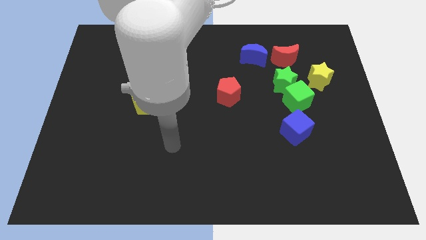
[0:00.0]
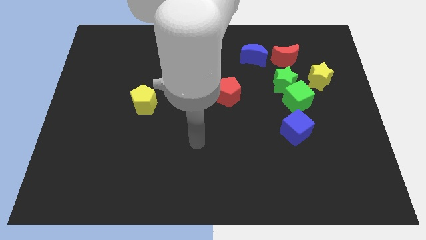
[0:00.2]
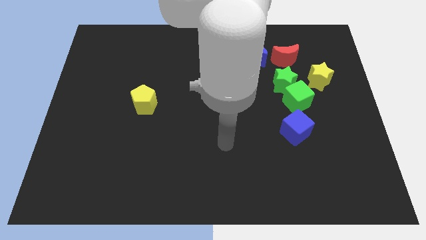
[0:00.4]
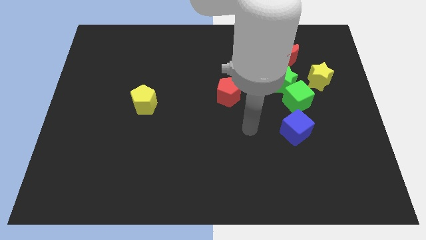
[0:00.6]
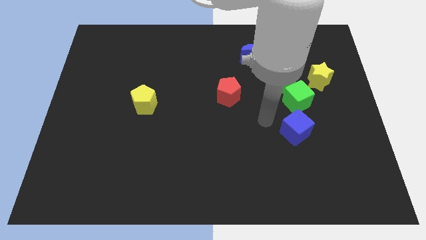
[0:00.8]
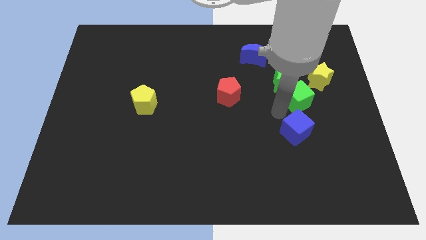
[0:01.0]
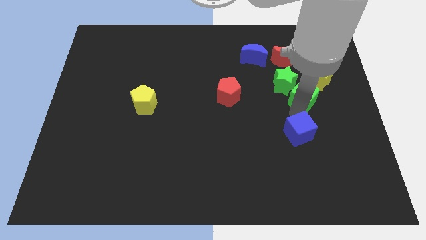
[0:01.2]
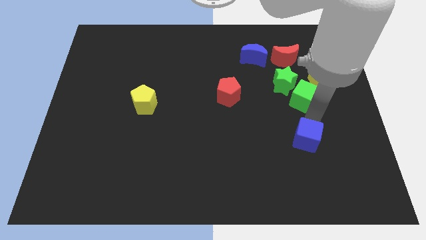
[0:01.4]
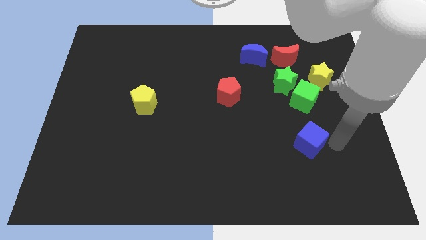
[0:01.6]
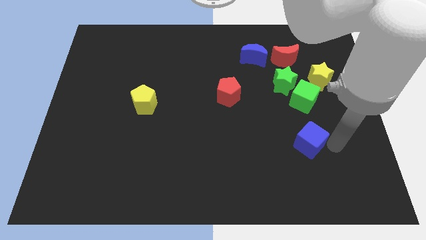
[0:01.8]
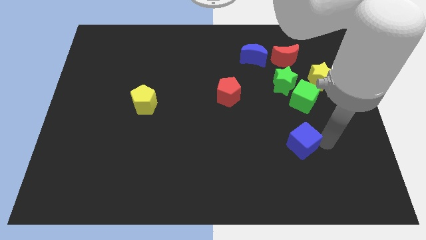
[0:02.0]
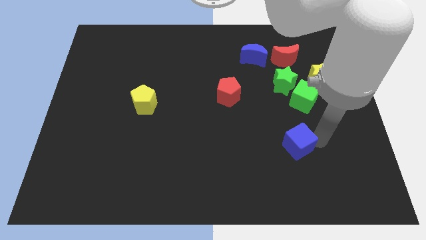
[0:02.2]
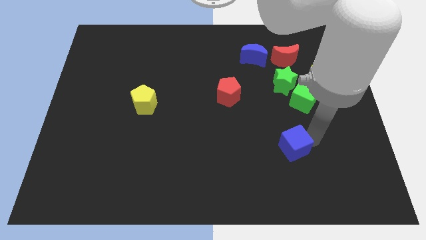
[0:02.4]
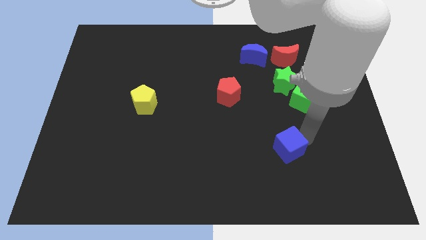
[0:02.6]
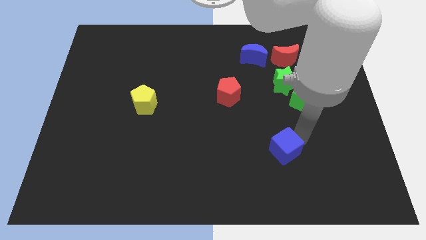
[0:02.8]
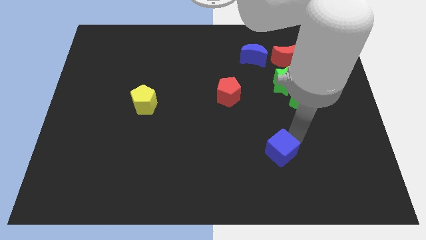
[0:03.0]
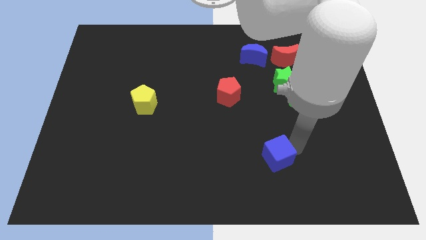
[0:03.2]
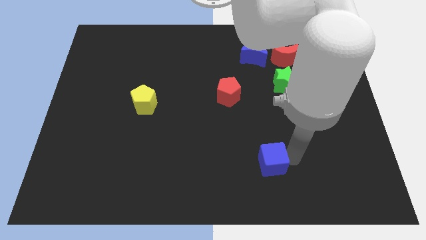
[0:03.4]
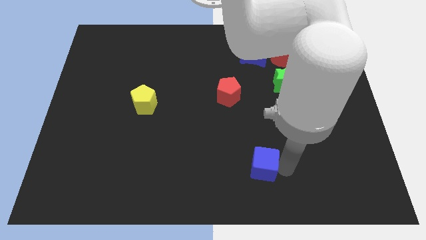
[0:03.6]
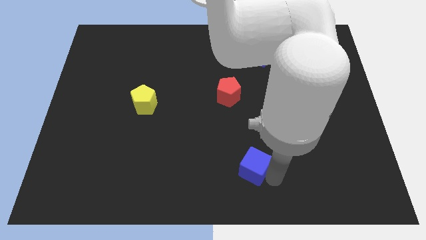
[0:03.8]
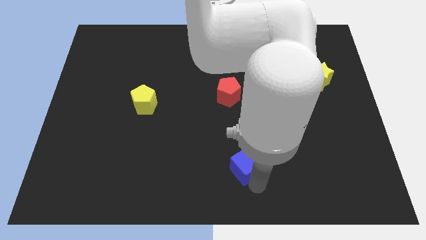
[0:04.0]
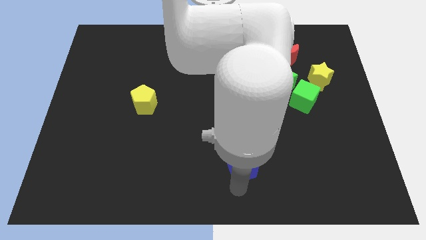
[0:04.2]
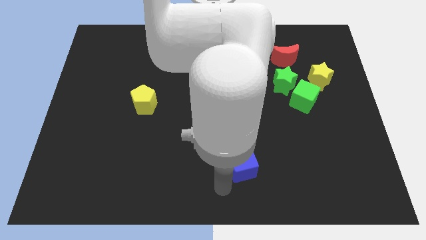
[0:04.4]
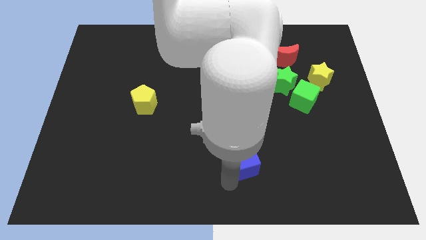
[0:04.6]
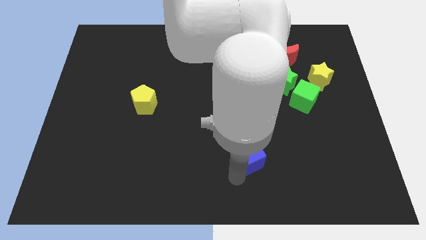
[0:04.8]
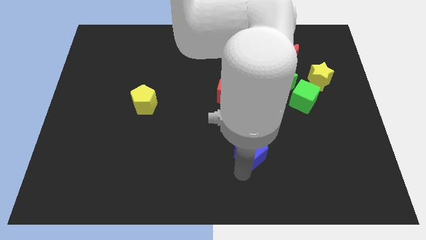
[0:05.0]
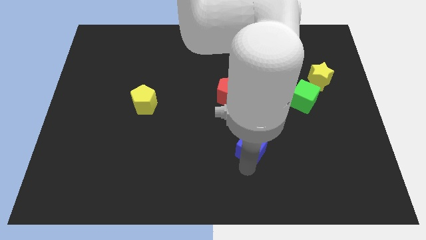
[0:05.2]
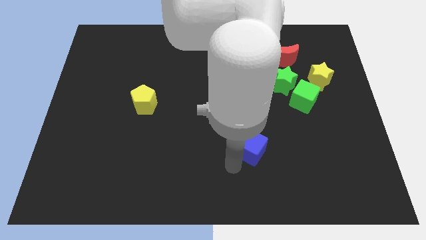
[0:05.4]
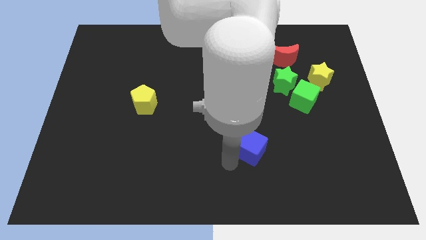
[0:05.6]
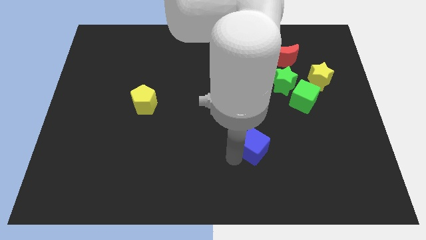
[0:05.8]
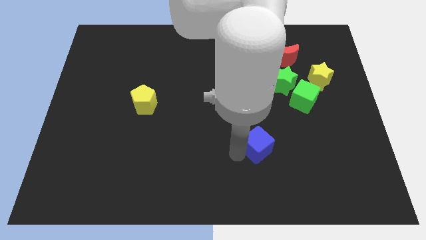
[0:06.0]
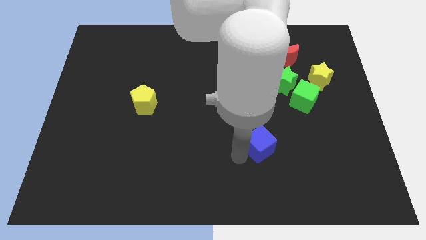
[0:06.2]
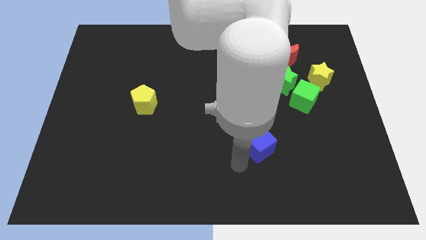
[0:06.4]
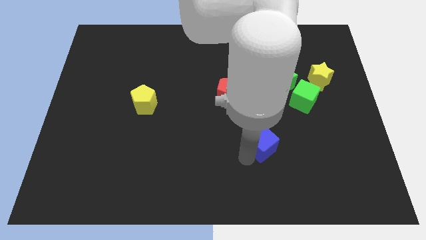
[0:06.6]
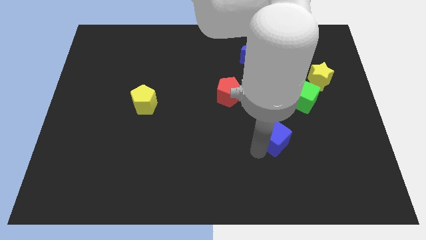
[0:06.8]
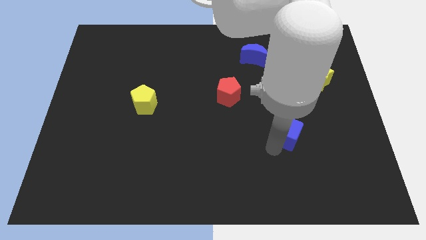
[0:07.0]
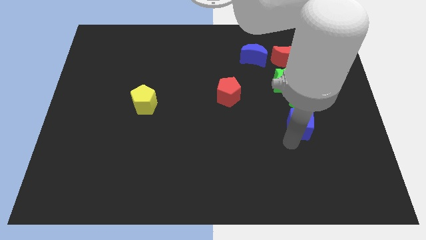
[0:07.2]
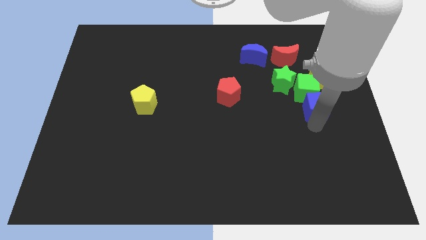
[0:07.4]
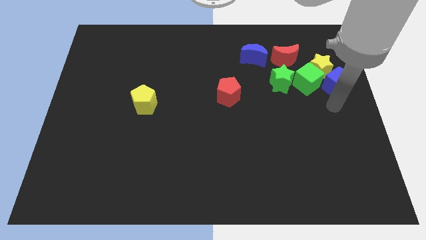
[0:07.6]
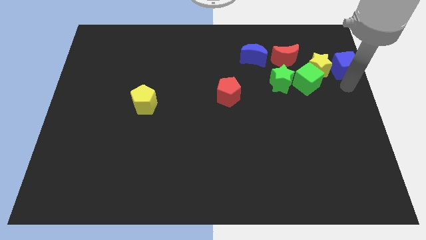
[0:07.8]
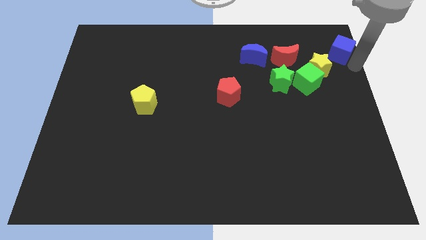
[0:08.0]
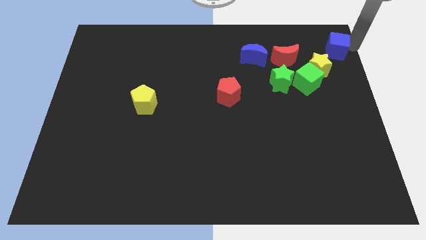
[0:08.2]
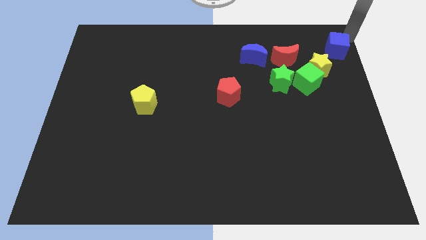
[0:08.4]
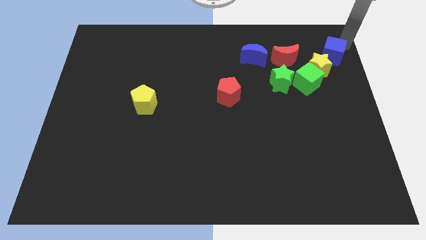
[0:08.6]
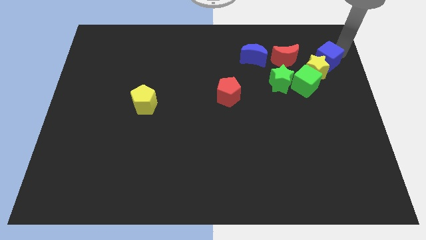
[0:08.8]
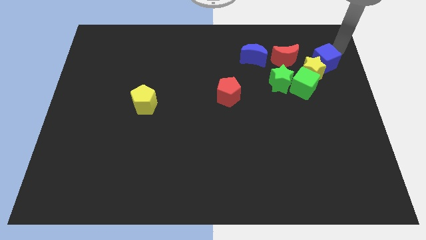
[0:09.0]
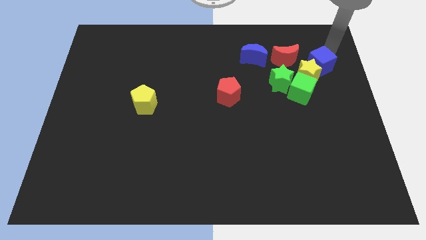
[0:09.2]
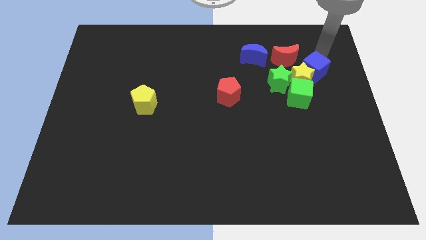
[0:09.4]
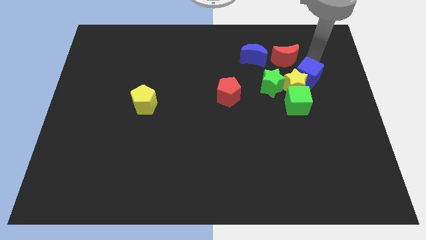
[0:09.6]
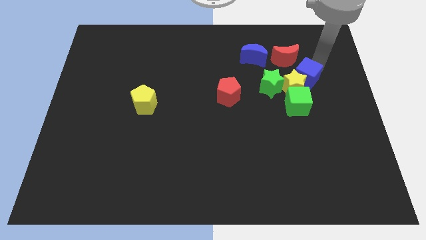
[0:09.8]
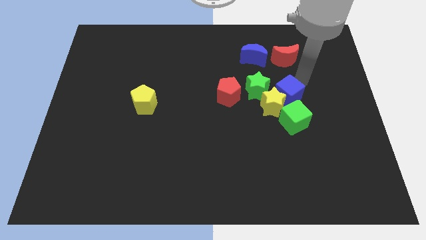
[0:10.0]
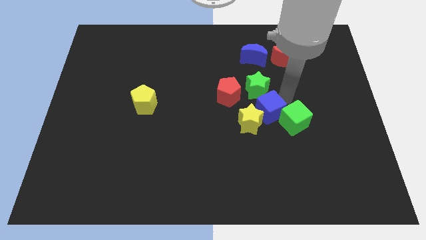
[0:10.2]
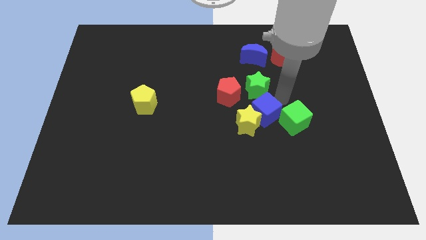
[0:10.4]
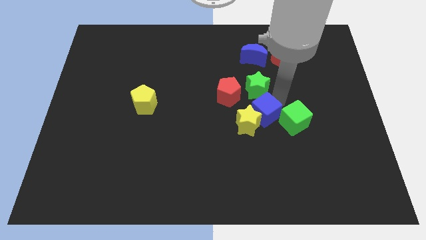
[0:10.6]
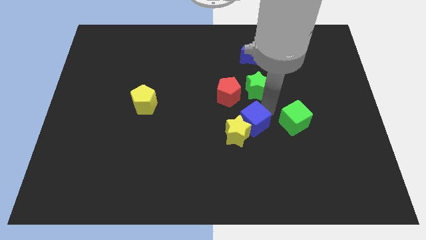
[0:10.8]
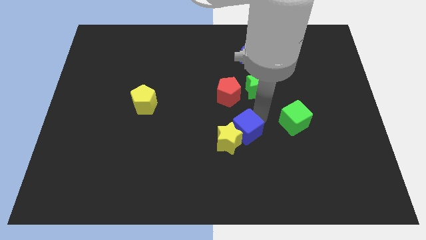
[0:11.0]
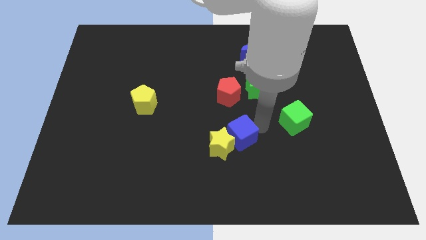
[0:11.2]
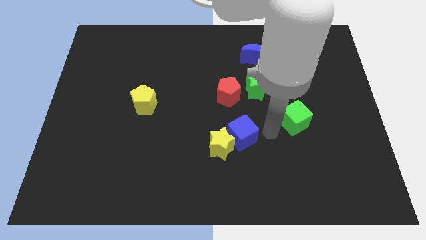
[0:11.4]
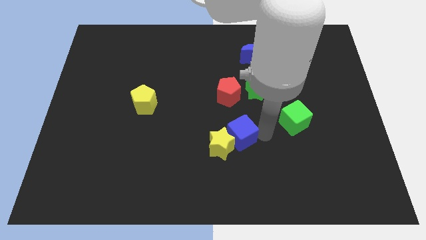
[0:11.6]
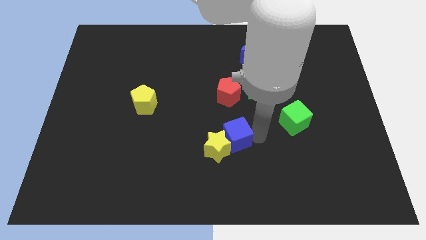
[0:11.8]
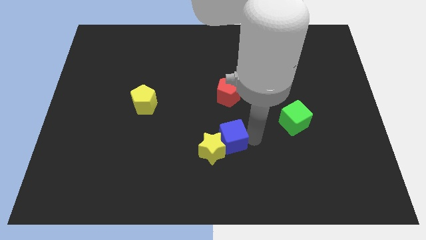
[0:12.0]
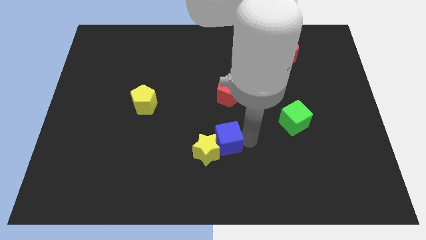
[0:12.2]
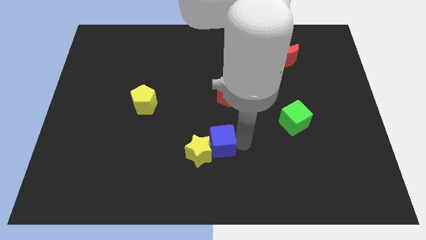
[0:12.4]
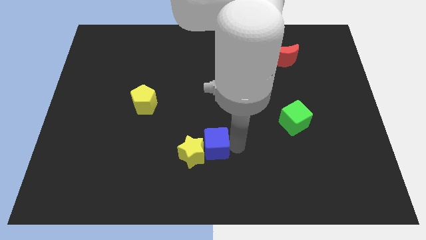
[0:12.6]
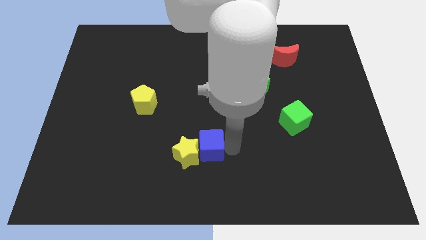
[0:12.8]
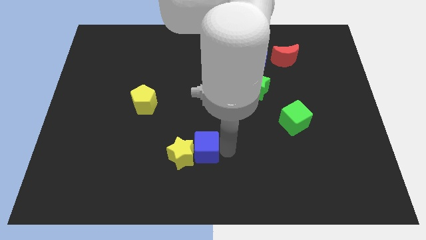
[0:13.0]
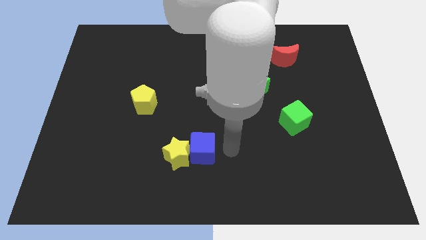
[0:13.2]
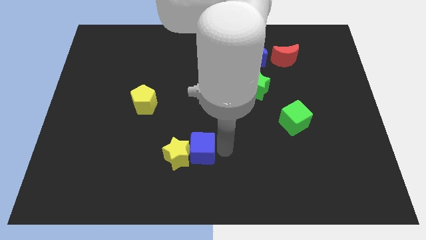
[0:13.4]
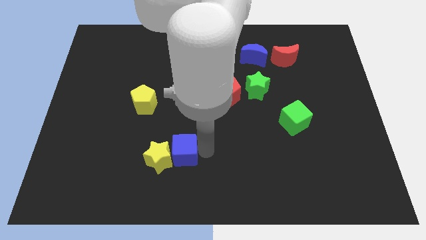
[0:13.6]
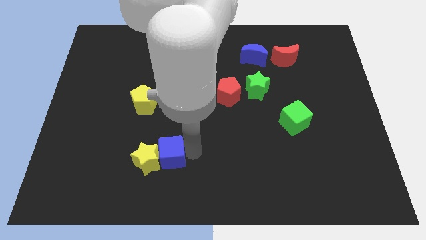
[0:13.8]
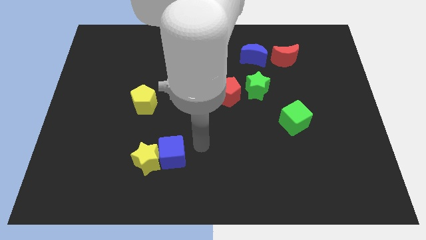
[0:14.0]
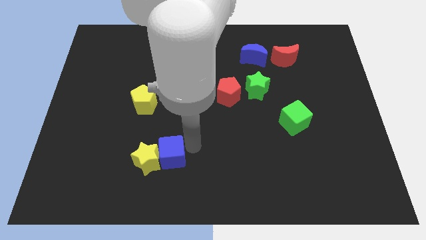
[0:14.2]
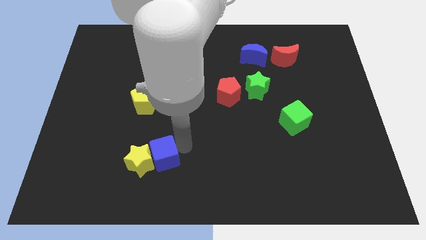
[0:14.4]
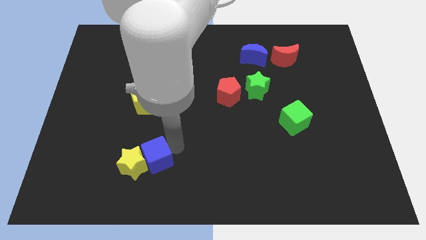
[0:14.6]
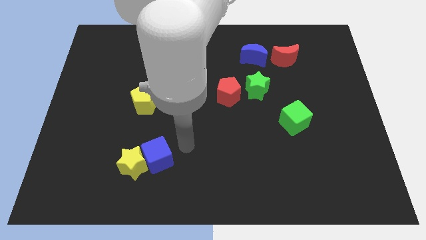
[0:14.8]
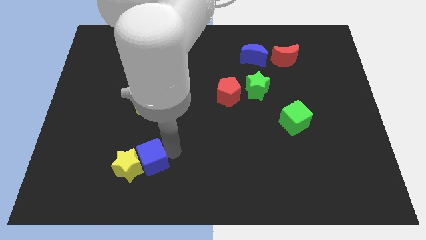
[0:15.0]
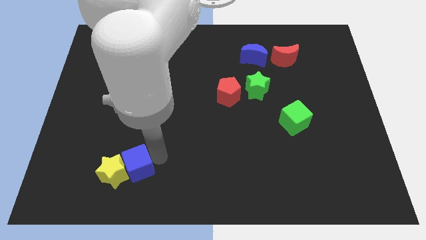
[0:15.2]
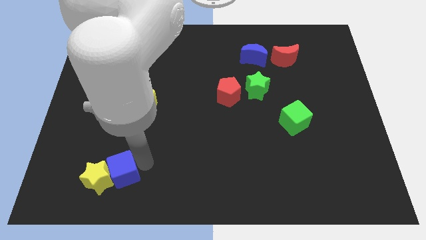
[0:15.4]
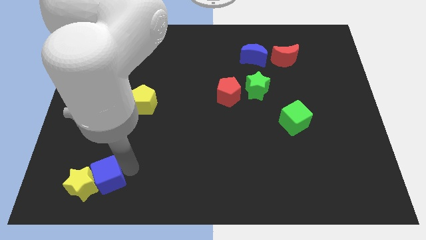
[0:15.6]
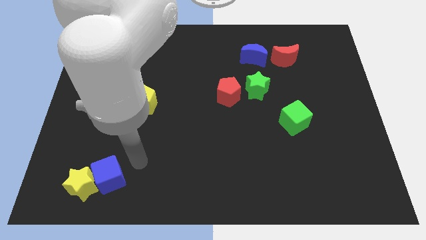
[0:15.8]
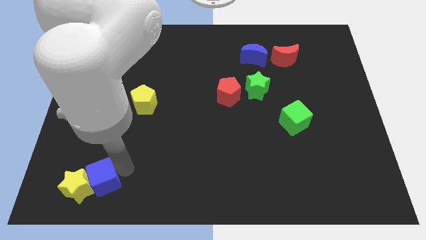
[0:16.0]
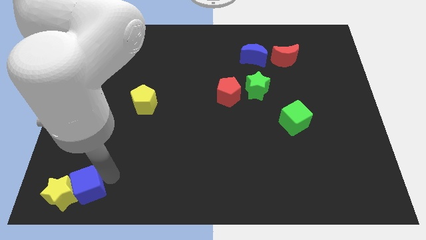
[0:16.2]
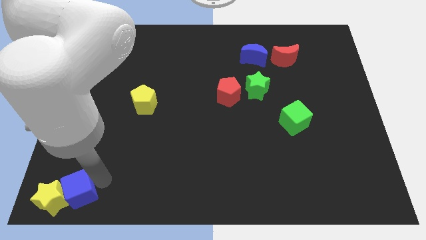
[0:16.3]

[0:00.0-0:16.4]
put the blue cube to the lower left corner
